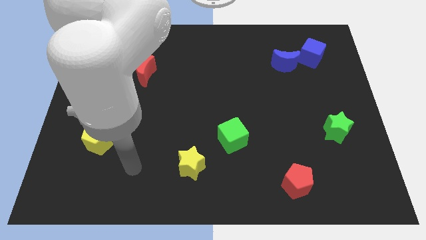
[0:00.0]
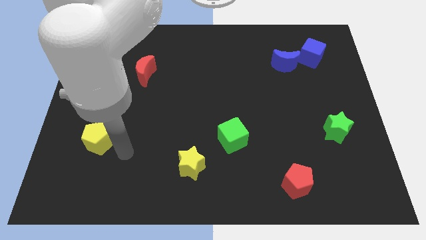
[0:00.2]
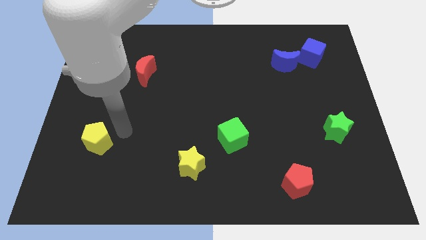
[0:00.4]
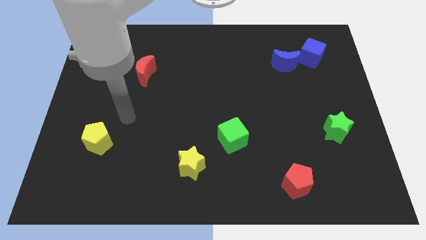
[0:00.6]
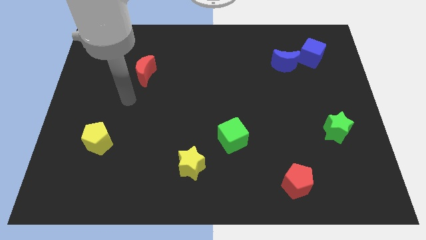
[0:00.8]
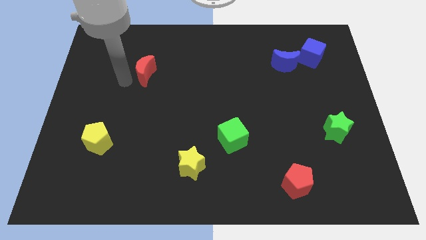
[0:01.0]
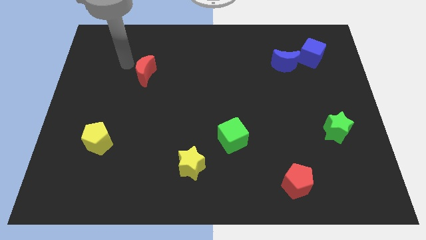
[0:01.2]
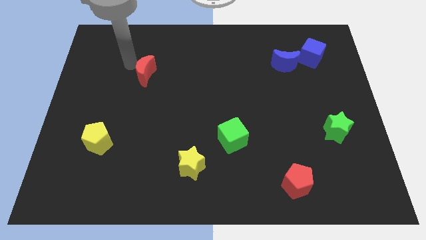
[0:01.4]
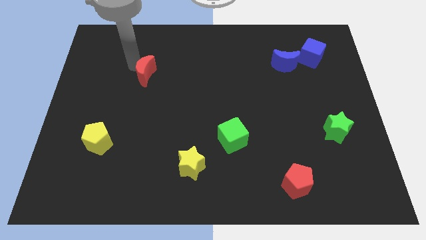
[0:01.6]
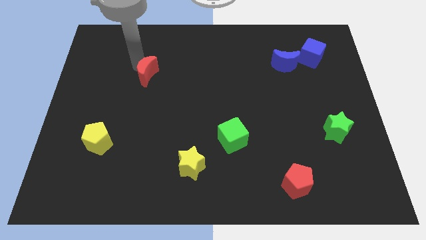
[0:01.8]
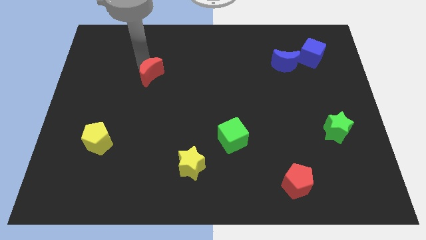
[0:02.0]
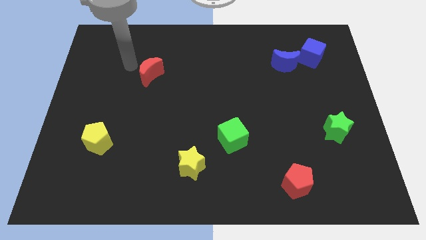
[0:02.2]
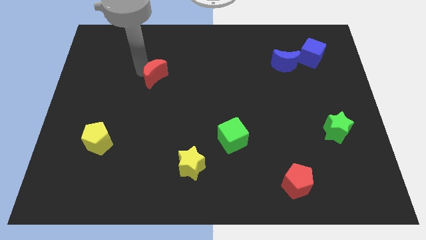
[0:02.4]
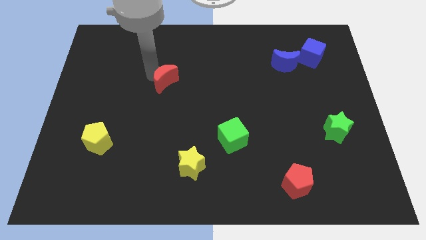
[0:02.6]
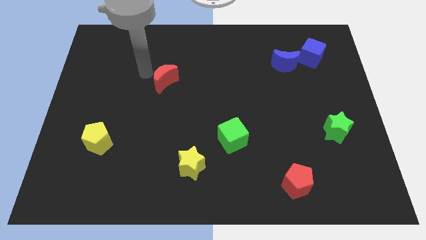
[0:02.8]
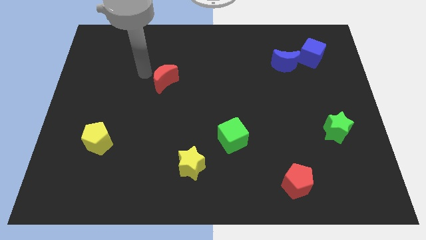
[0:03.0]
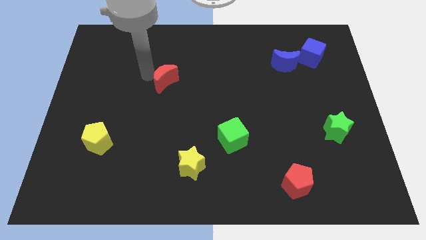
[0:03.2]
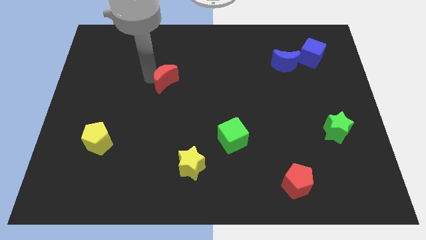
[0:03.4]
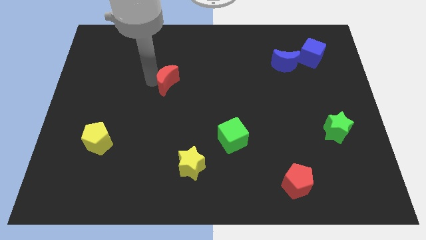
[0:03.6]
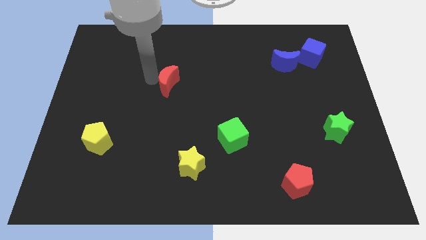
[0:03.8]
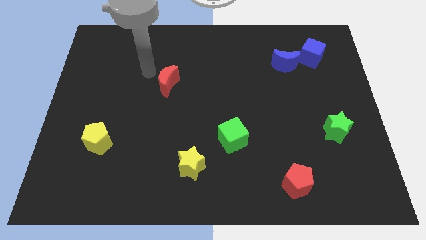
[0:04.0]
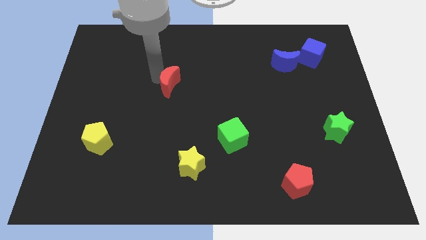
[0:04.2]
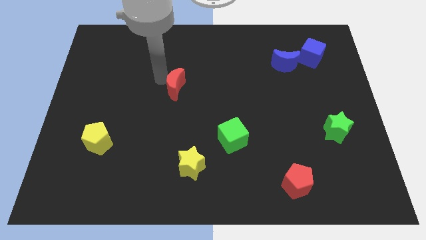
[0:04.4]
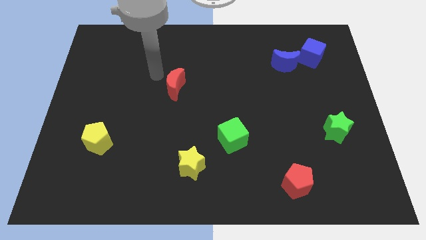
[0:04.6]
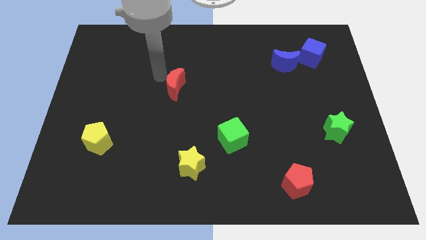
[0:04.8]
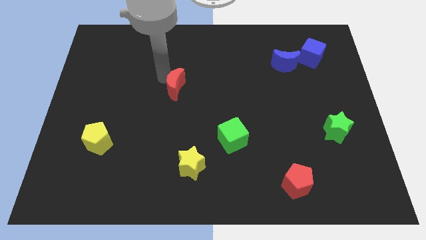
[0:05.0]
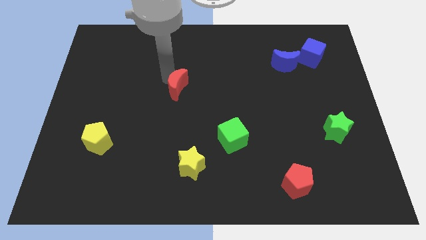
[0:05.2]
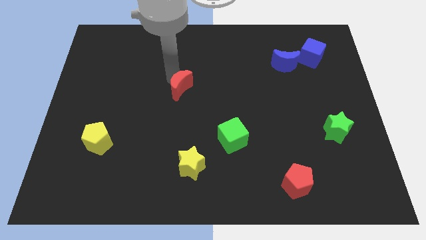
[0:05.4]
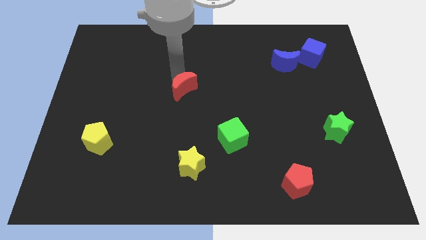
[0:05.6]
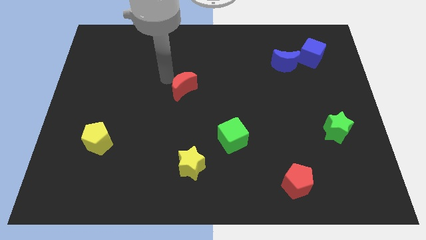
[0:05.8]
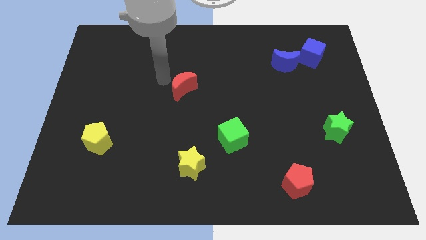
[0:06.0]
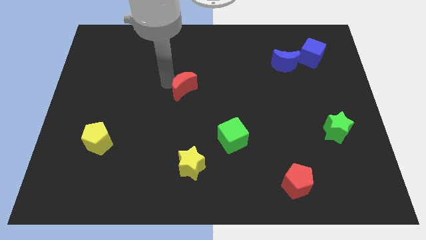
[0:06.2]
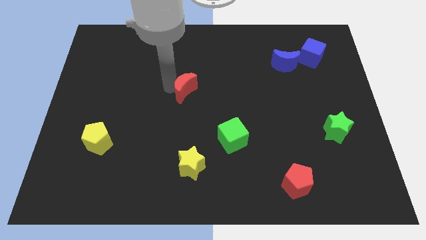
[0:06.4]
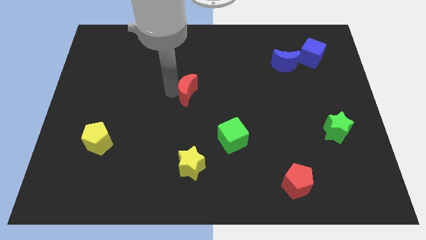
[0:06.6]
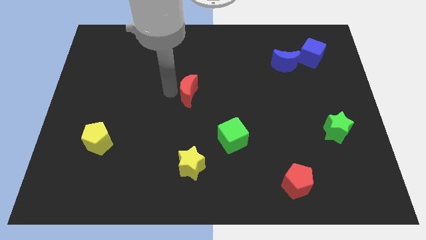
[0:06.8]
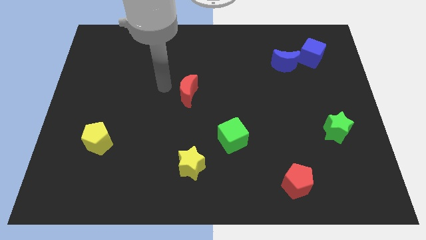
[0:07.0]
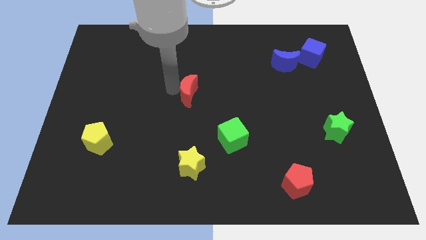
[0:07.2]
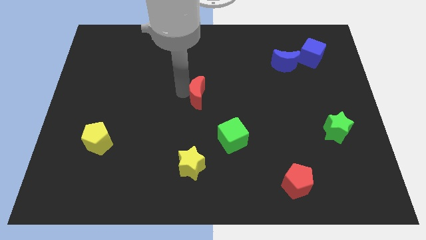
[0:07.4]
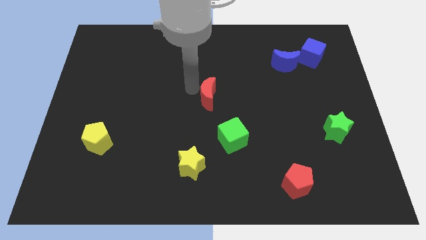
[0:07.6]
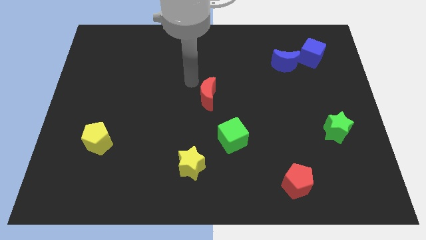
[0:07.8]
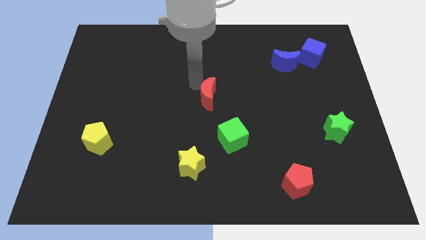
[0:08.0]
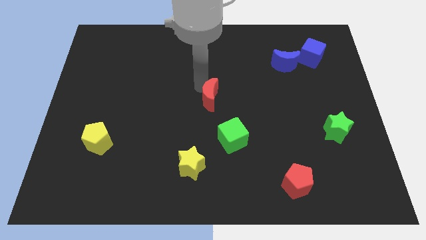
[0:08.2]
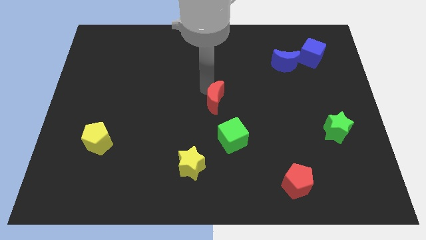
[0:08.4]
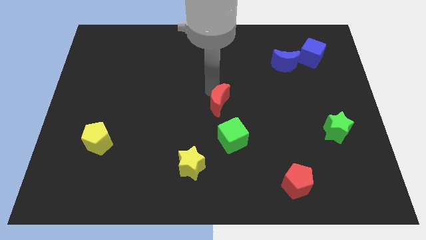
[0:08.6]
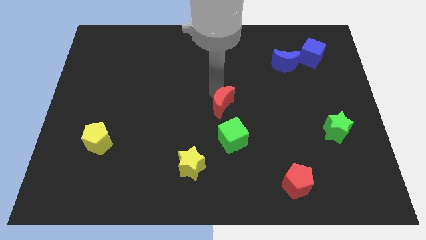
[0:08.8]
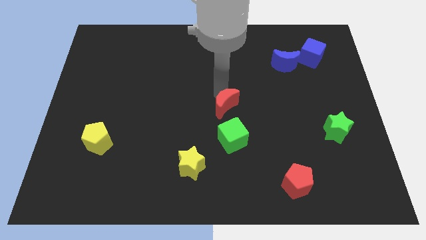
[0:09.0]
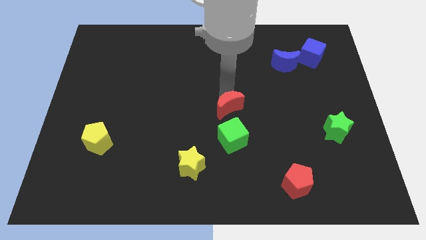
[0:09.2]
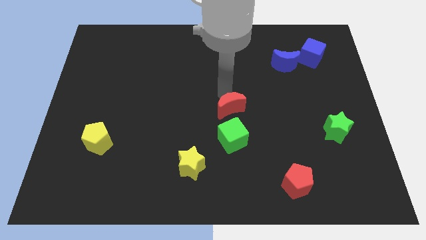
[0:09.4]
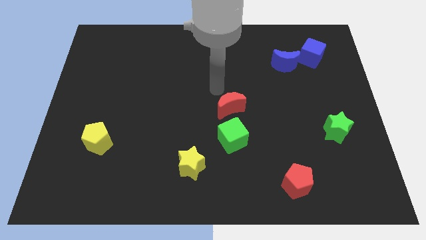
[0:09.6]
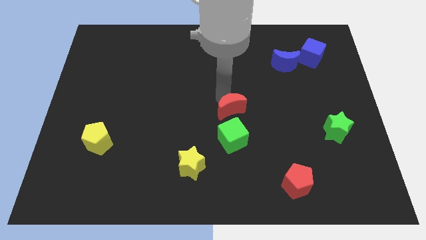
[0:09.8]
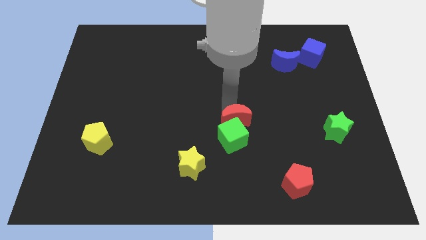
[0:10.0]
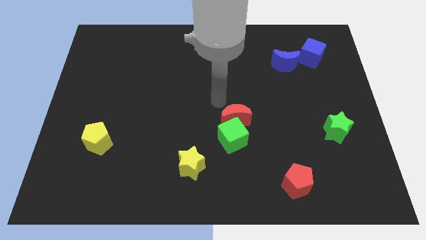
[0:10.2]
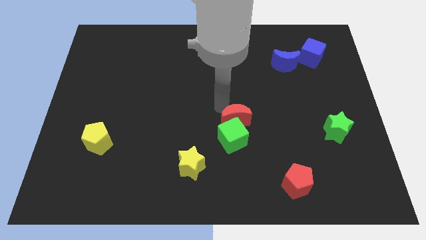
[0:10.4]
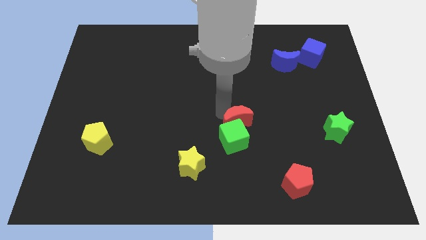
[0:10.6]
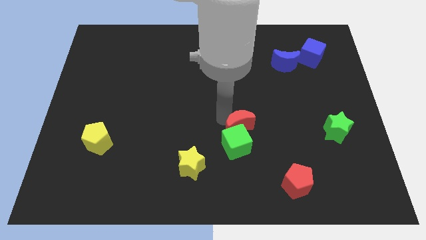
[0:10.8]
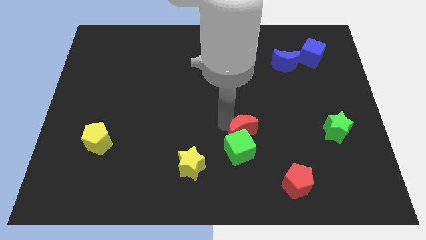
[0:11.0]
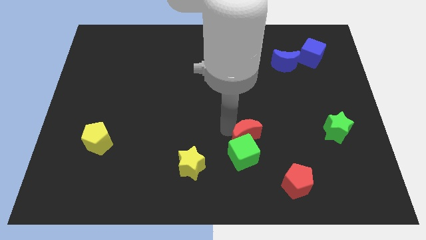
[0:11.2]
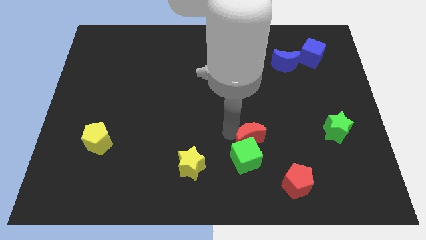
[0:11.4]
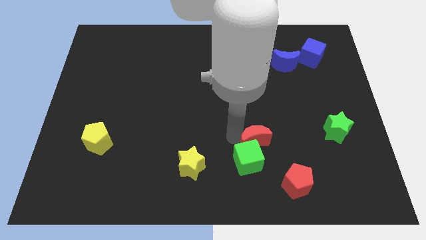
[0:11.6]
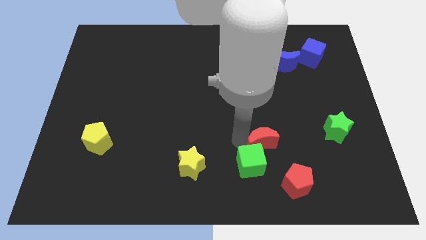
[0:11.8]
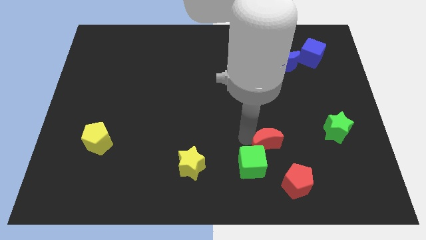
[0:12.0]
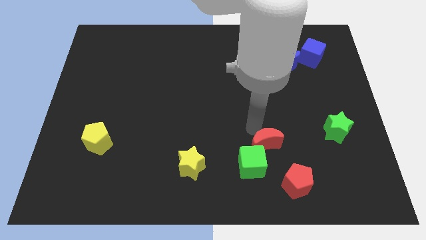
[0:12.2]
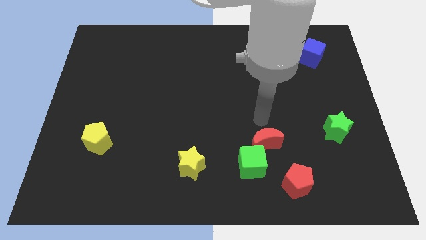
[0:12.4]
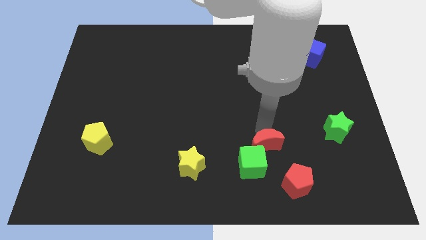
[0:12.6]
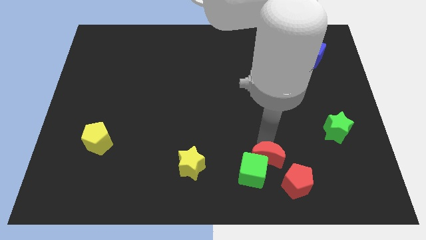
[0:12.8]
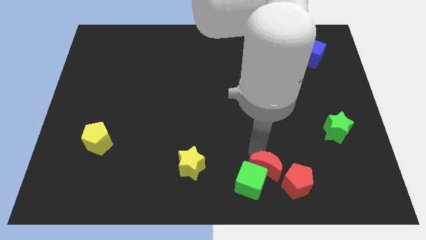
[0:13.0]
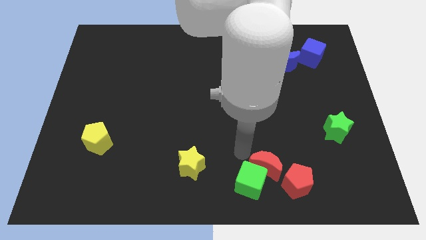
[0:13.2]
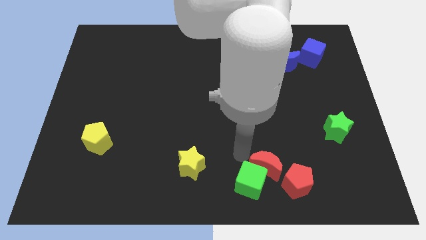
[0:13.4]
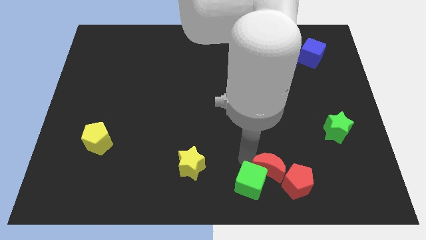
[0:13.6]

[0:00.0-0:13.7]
put the red moon to the red pentagon

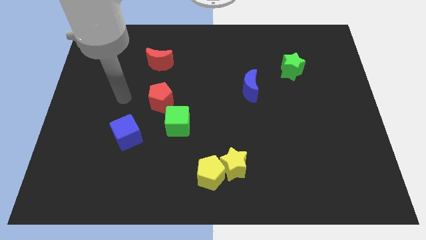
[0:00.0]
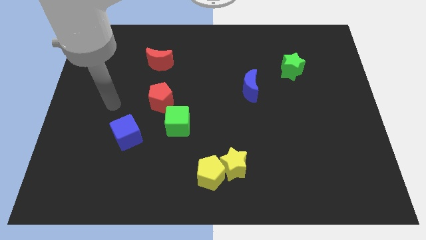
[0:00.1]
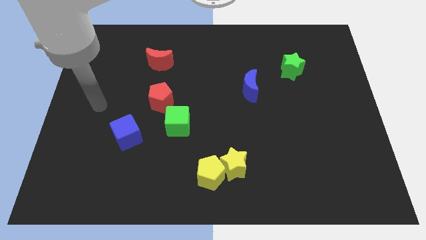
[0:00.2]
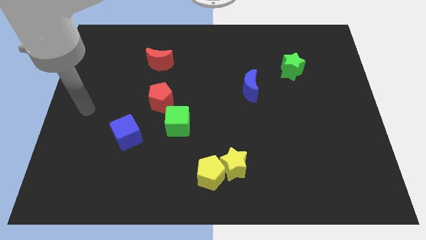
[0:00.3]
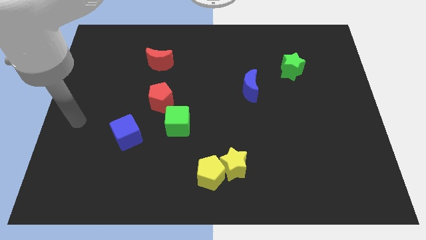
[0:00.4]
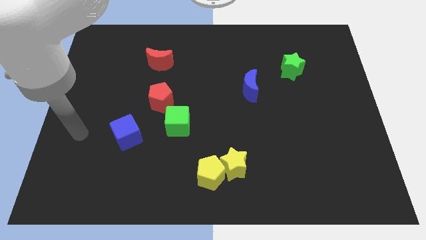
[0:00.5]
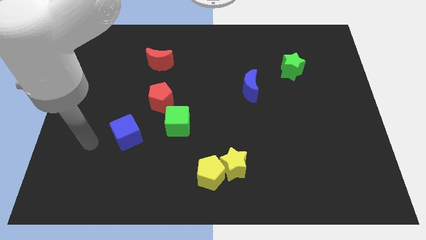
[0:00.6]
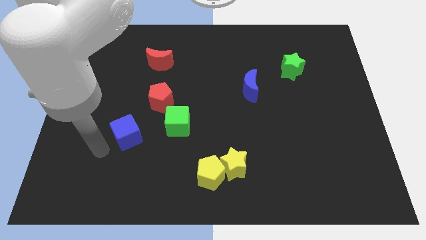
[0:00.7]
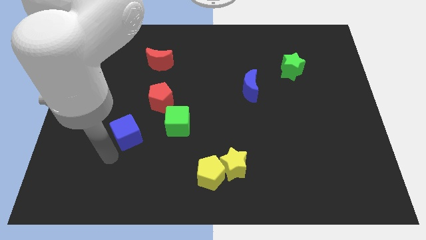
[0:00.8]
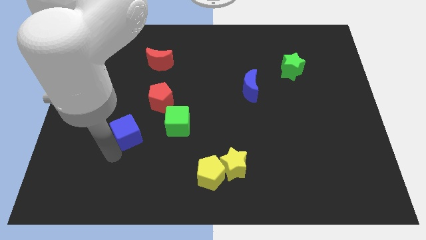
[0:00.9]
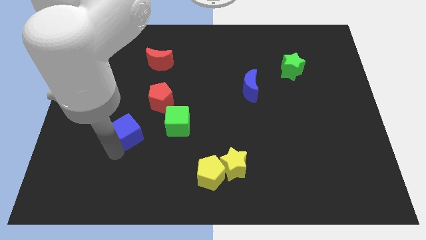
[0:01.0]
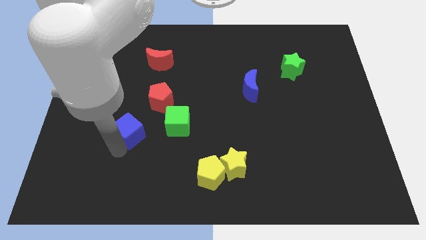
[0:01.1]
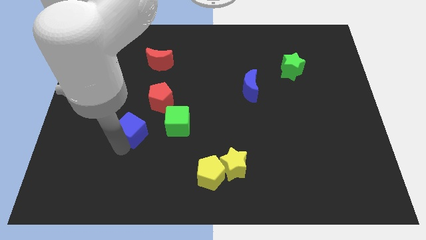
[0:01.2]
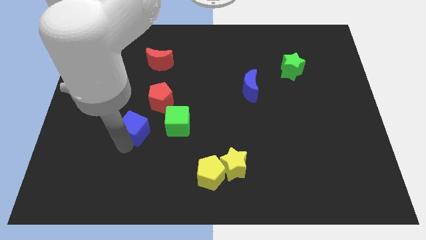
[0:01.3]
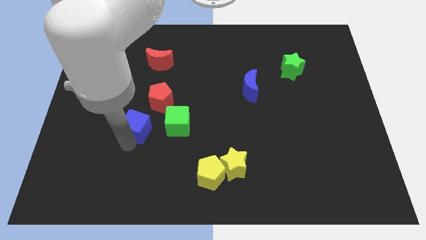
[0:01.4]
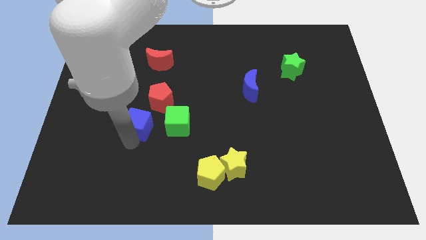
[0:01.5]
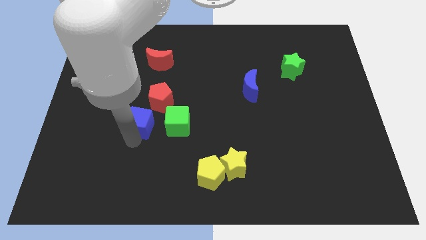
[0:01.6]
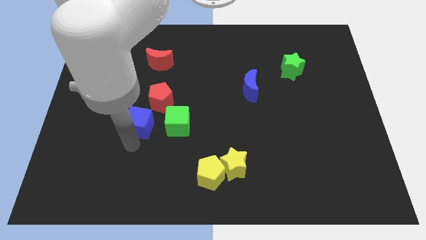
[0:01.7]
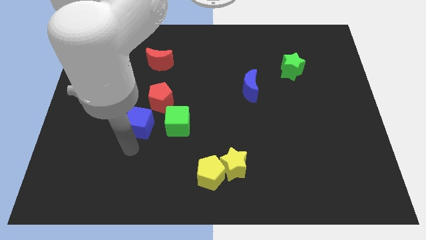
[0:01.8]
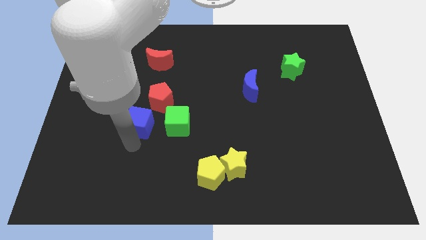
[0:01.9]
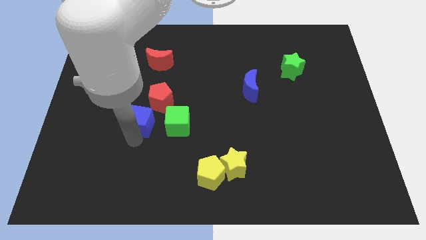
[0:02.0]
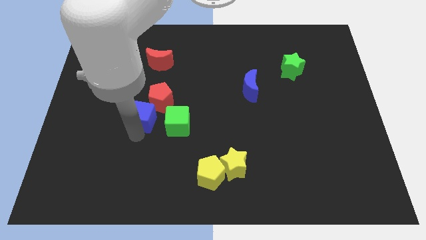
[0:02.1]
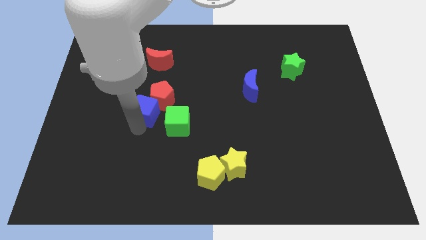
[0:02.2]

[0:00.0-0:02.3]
move the blue cube close to the red pentagon
